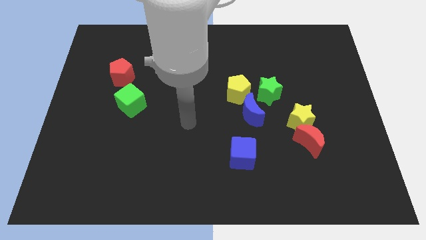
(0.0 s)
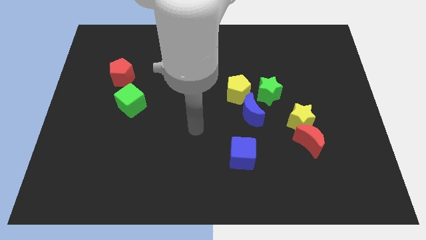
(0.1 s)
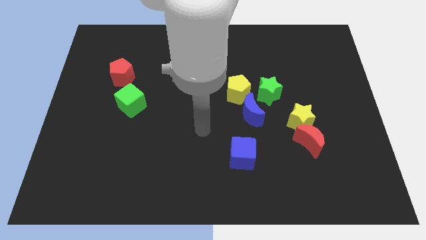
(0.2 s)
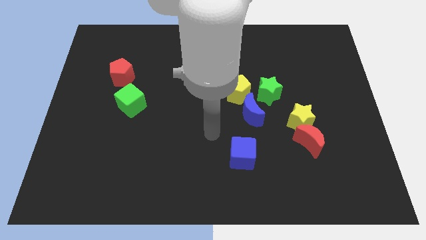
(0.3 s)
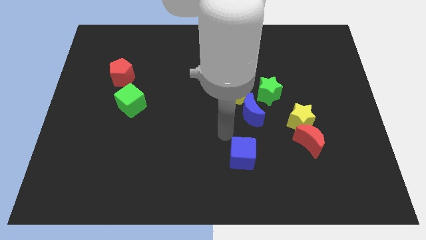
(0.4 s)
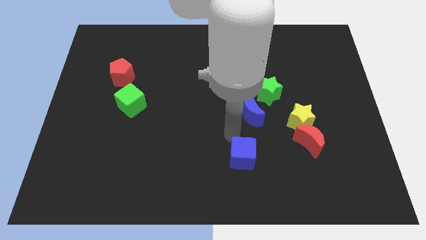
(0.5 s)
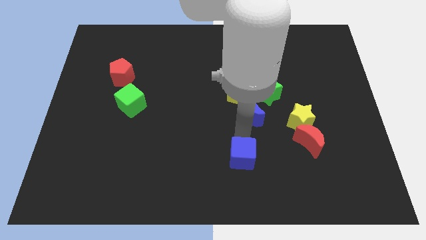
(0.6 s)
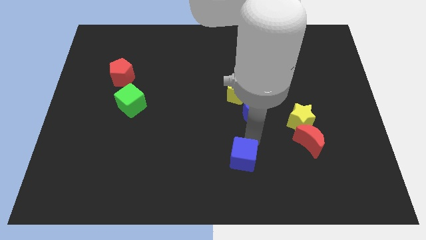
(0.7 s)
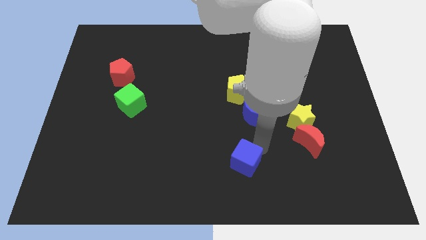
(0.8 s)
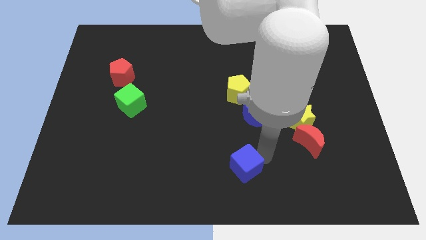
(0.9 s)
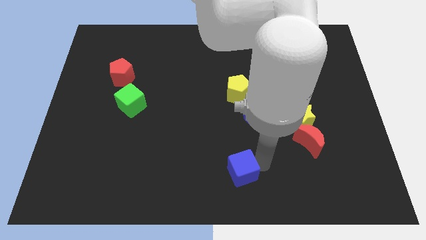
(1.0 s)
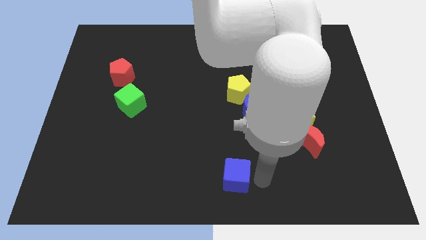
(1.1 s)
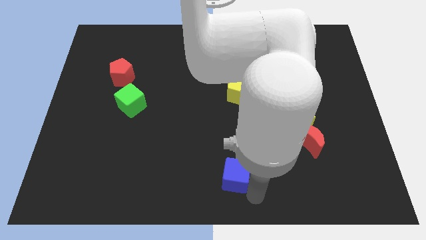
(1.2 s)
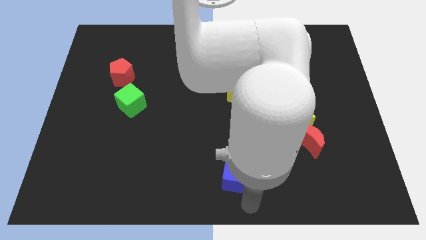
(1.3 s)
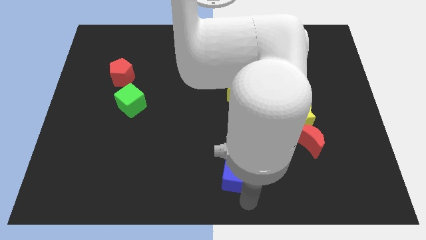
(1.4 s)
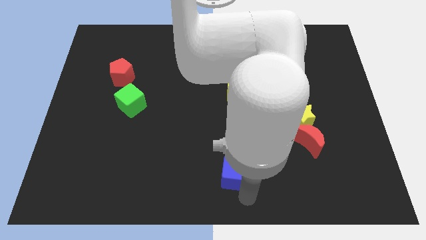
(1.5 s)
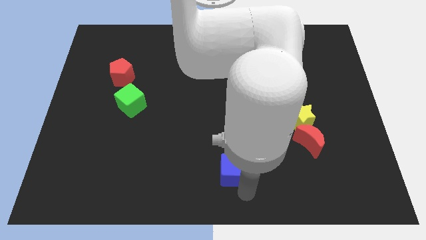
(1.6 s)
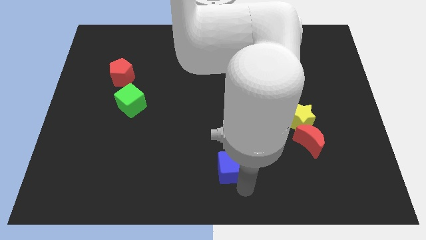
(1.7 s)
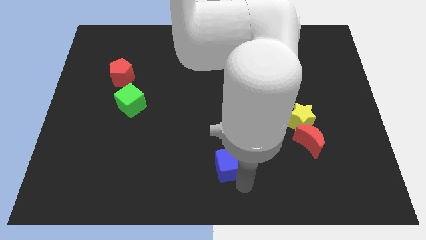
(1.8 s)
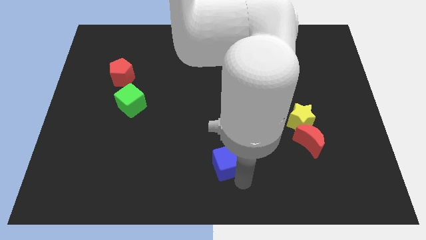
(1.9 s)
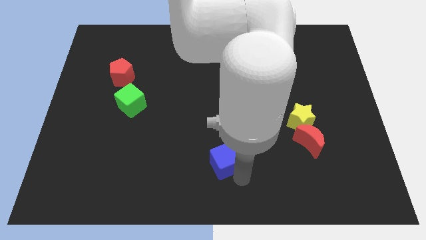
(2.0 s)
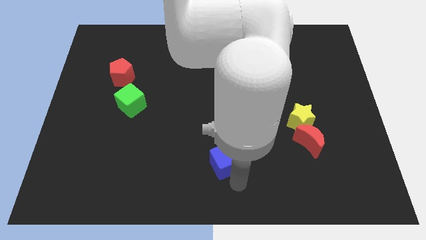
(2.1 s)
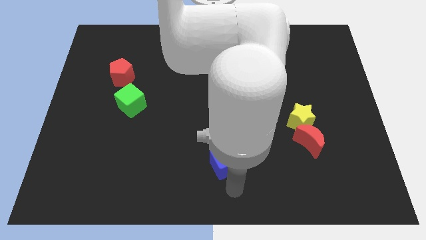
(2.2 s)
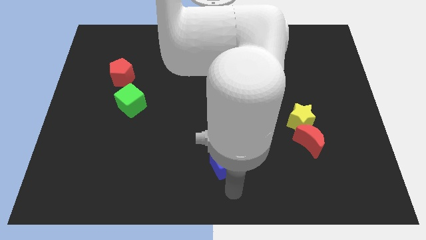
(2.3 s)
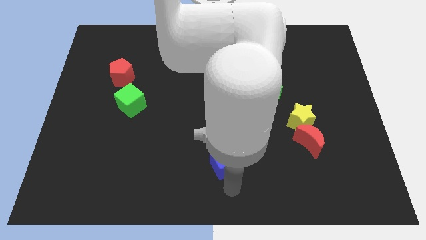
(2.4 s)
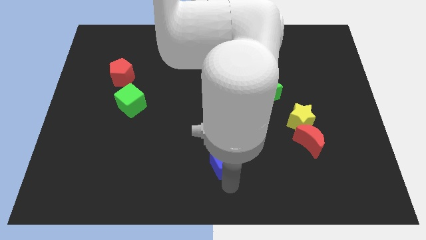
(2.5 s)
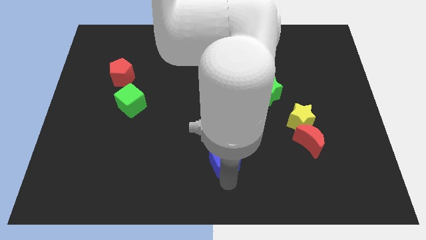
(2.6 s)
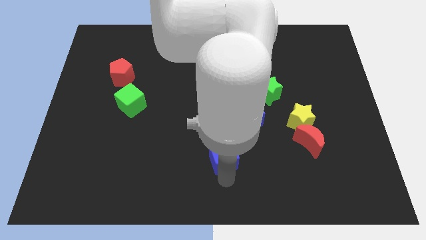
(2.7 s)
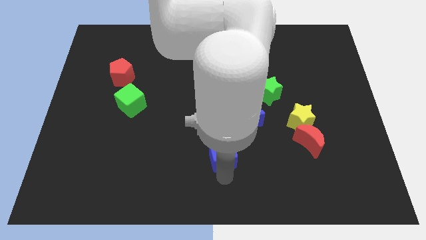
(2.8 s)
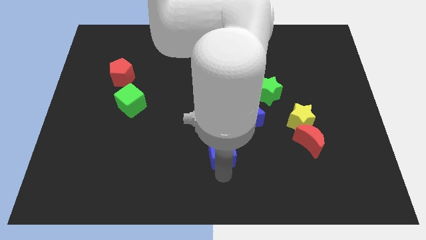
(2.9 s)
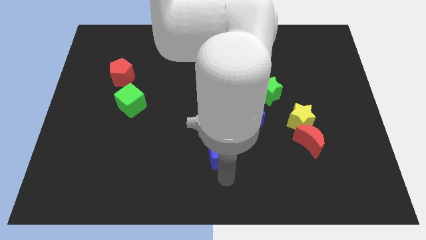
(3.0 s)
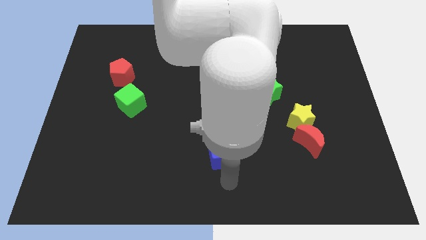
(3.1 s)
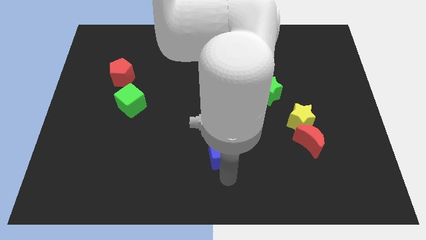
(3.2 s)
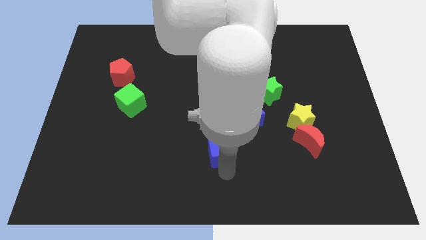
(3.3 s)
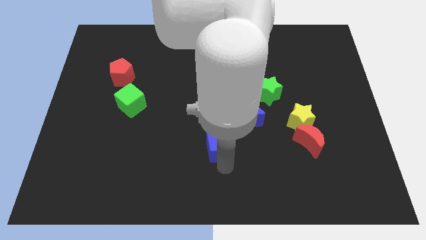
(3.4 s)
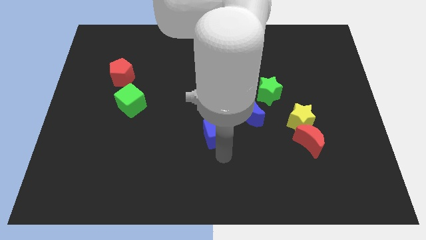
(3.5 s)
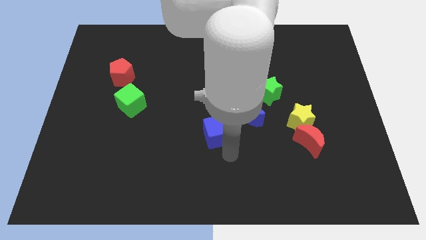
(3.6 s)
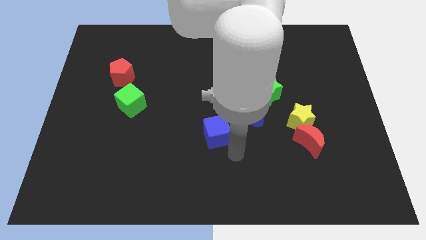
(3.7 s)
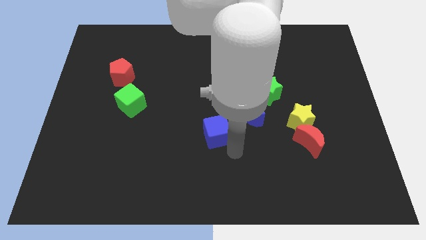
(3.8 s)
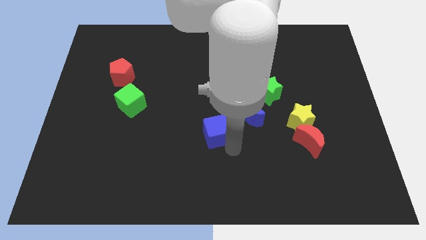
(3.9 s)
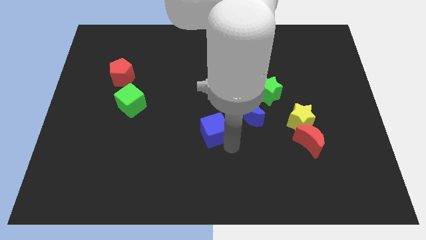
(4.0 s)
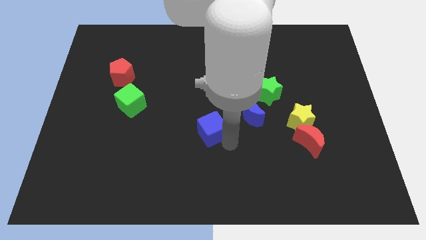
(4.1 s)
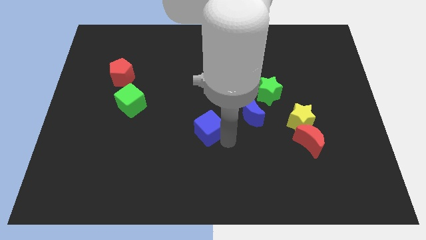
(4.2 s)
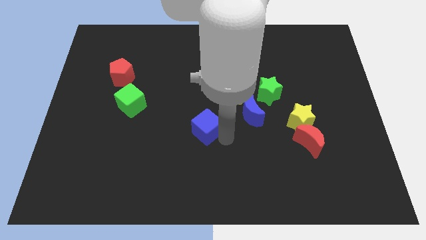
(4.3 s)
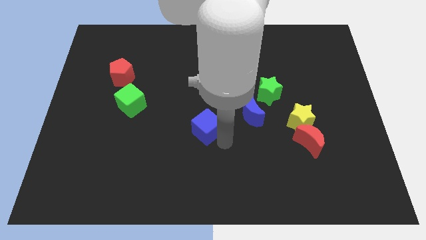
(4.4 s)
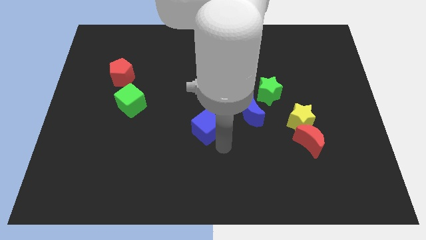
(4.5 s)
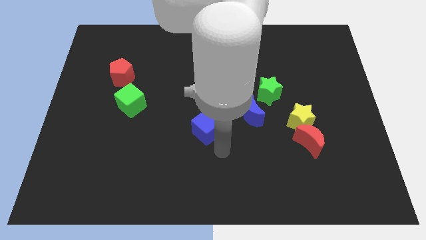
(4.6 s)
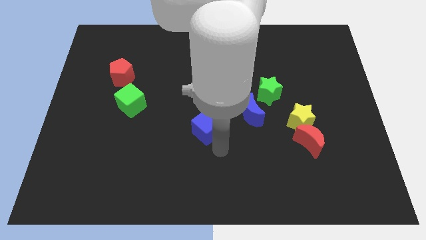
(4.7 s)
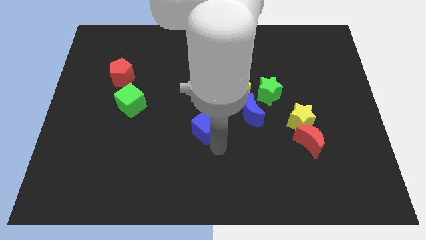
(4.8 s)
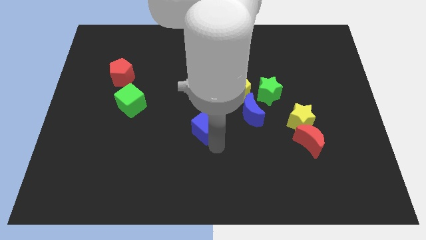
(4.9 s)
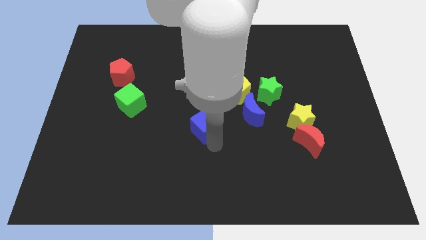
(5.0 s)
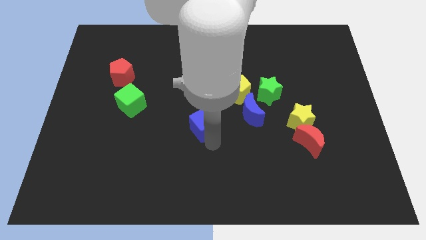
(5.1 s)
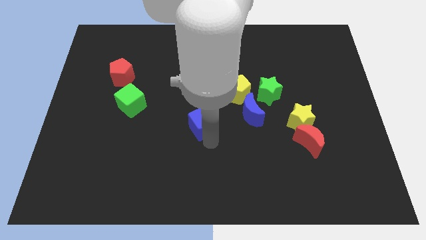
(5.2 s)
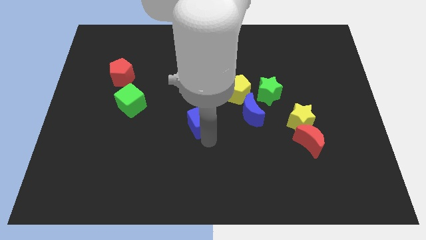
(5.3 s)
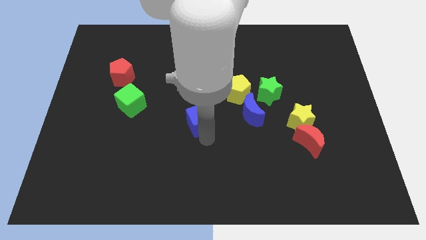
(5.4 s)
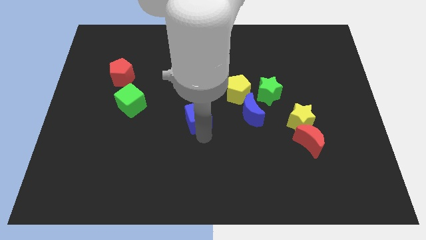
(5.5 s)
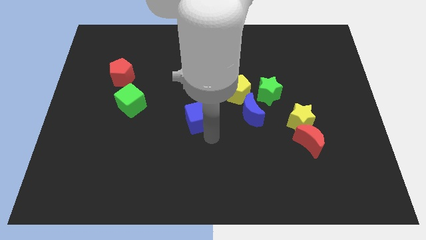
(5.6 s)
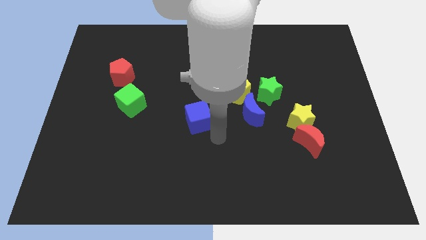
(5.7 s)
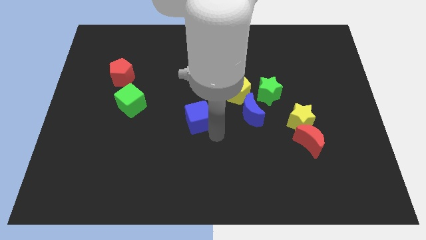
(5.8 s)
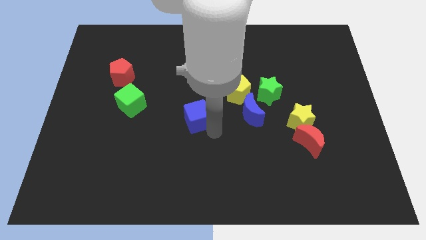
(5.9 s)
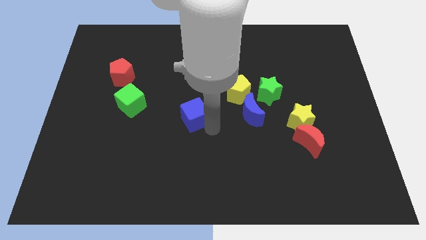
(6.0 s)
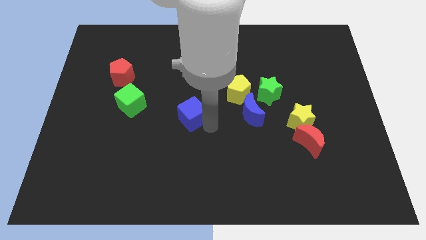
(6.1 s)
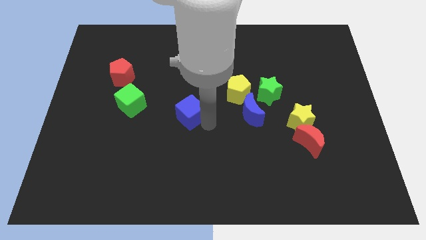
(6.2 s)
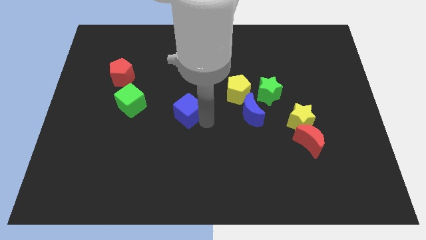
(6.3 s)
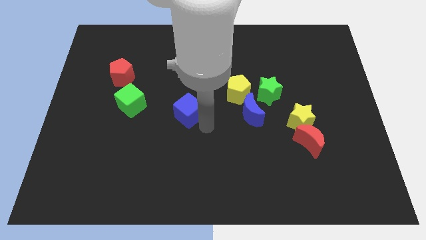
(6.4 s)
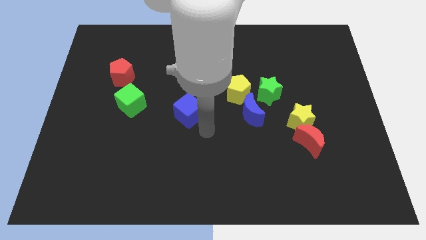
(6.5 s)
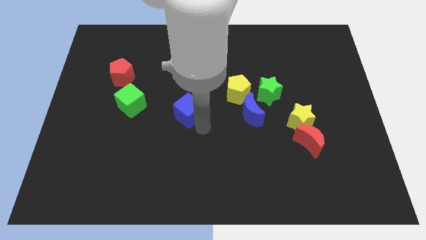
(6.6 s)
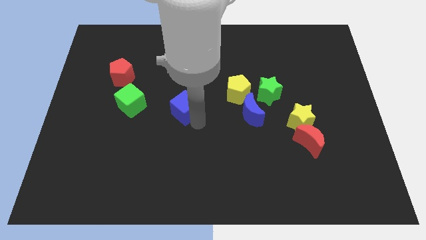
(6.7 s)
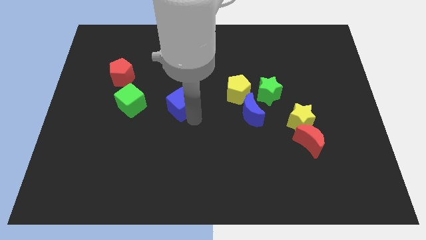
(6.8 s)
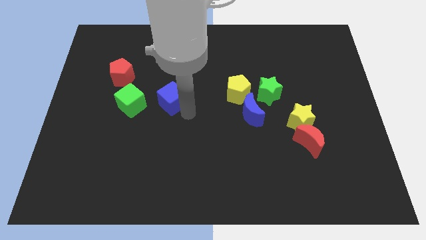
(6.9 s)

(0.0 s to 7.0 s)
push the blue cube upwards and then left

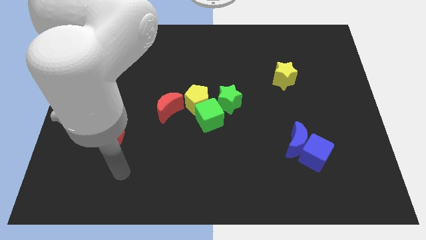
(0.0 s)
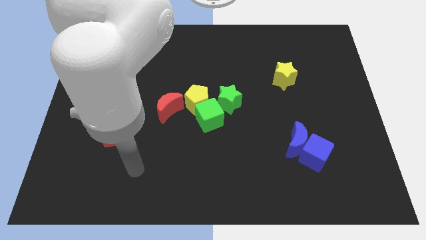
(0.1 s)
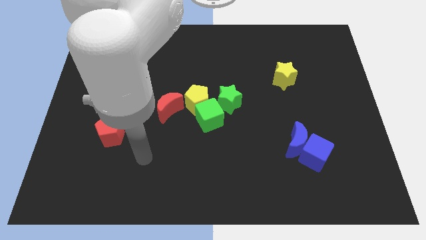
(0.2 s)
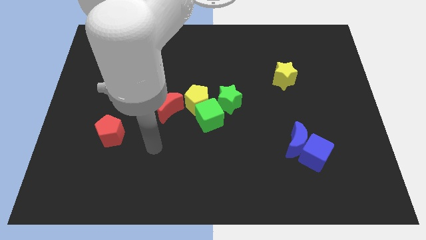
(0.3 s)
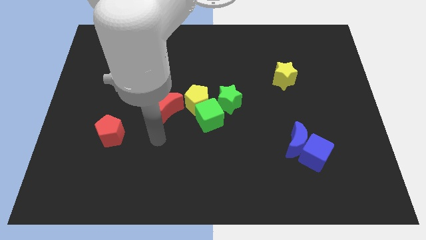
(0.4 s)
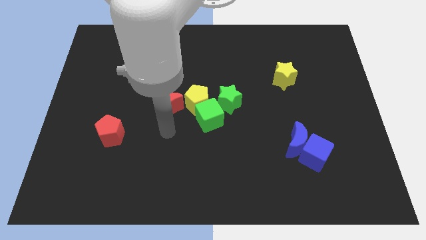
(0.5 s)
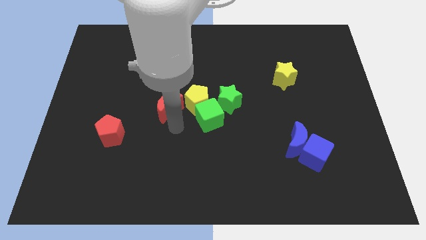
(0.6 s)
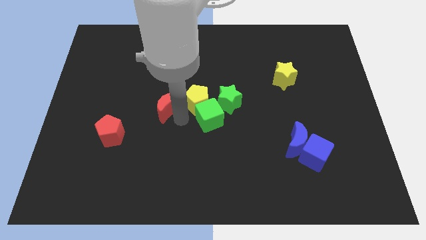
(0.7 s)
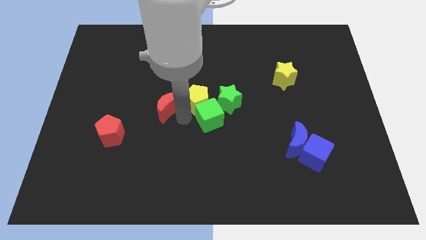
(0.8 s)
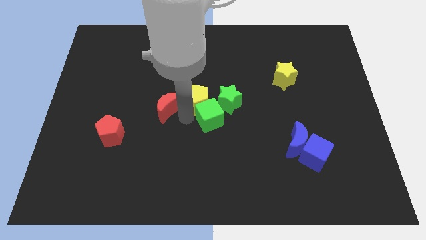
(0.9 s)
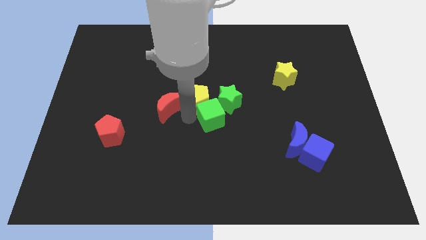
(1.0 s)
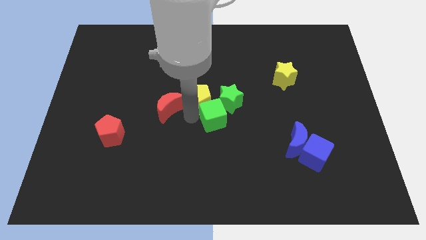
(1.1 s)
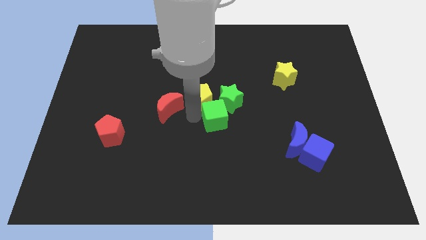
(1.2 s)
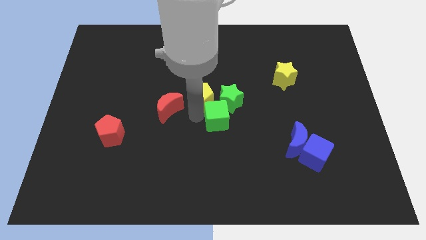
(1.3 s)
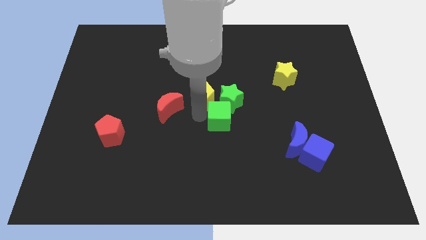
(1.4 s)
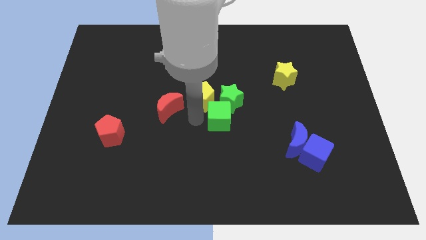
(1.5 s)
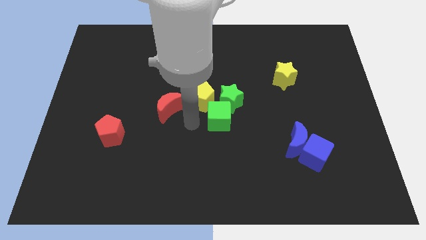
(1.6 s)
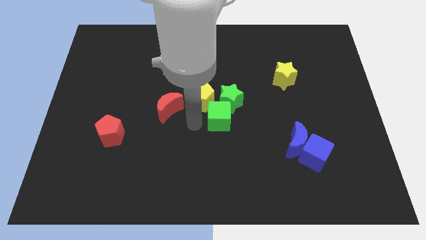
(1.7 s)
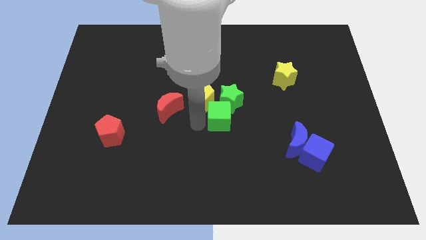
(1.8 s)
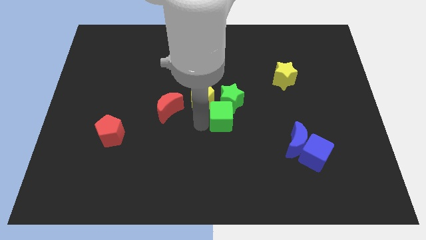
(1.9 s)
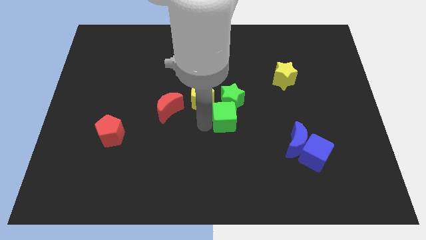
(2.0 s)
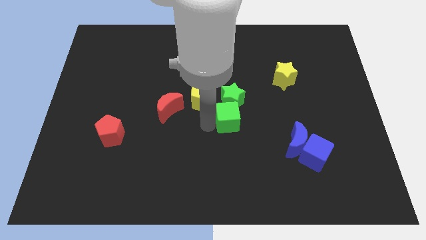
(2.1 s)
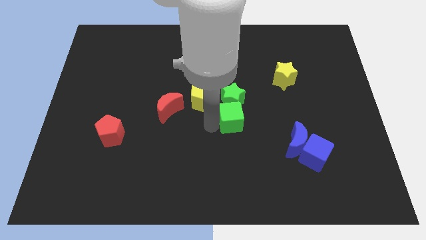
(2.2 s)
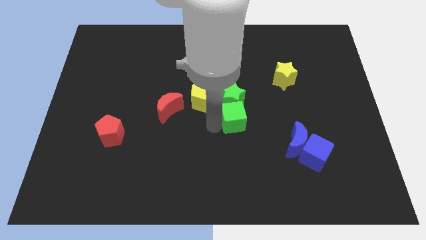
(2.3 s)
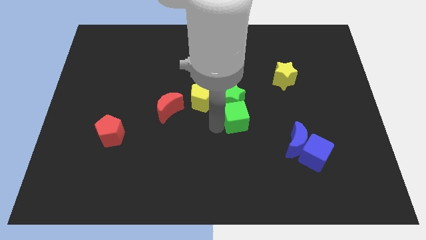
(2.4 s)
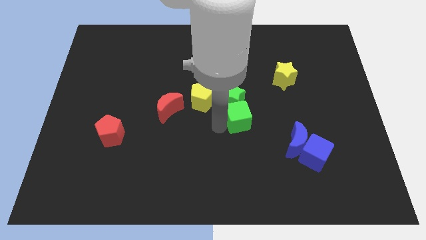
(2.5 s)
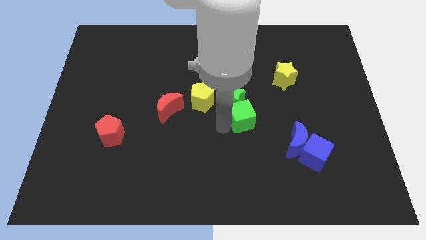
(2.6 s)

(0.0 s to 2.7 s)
slide the green cube a bit to the right
